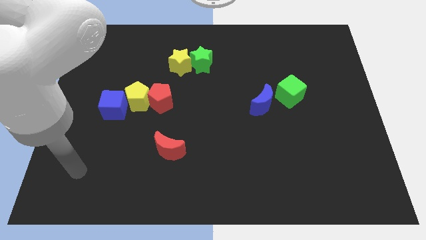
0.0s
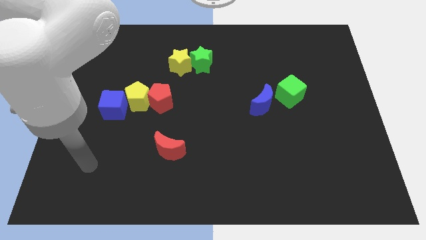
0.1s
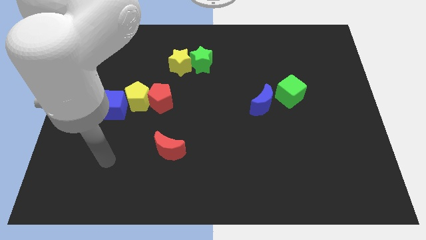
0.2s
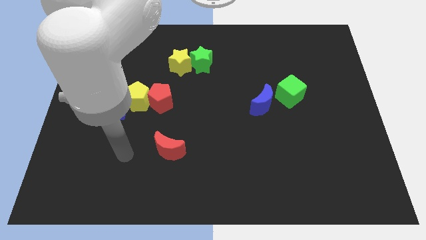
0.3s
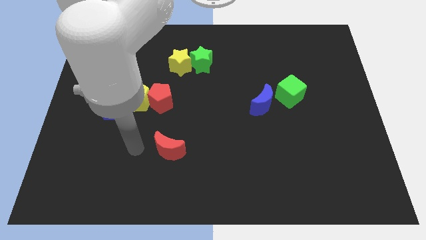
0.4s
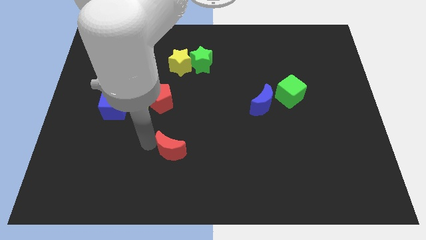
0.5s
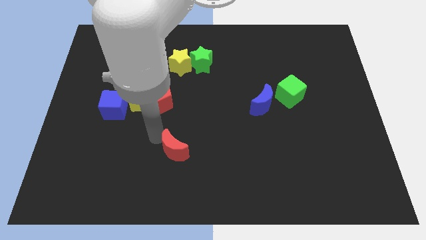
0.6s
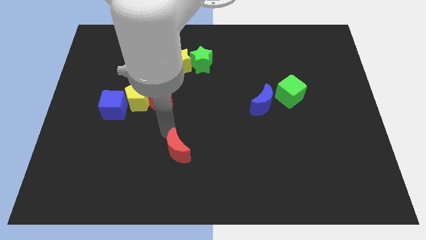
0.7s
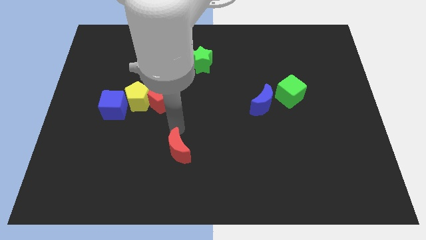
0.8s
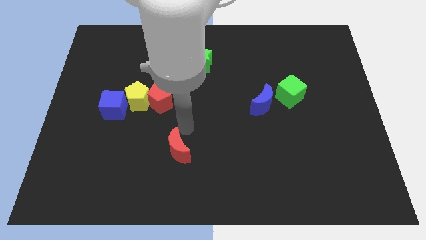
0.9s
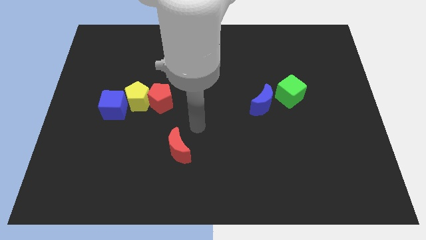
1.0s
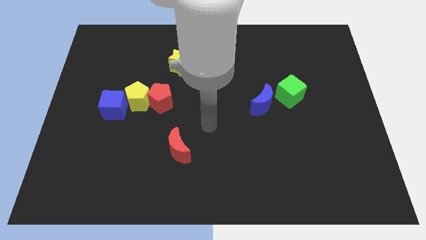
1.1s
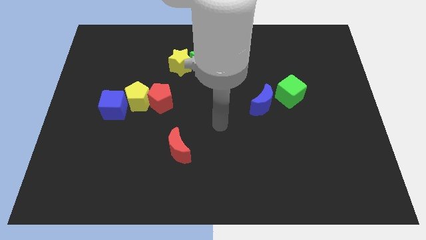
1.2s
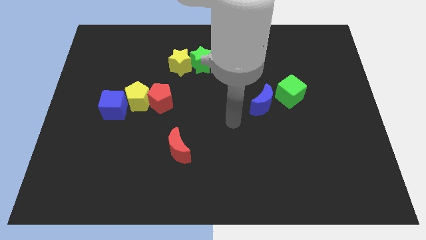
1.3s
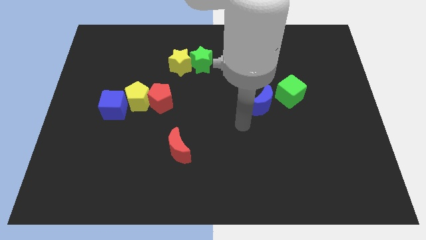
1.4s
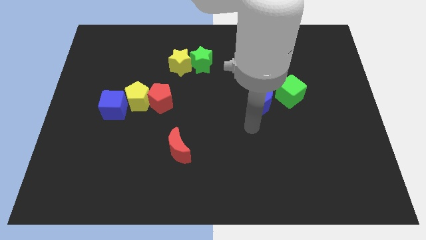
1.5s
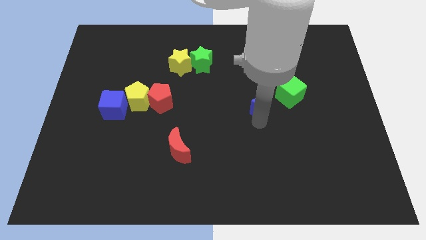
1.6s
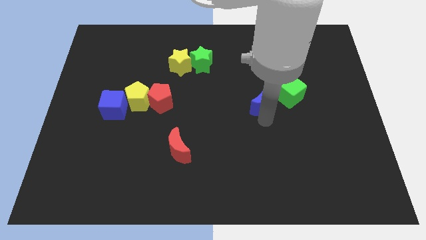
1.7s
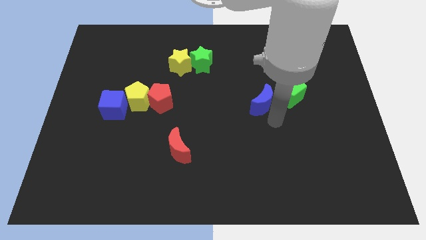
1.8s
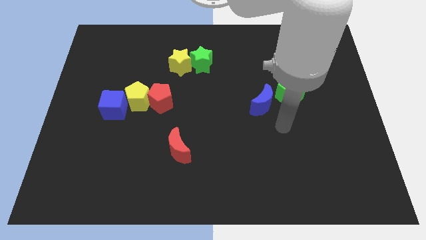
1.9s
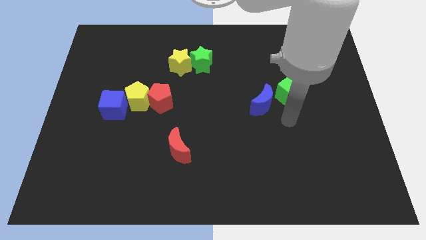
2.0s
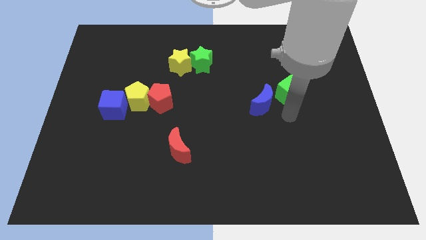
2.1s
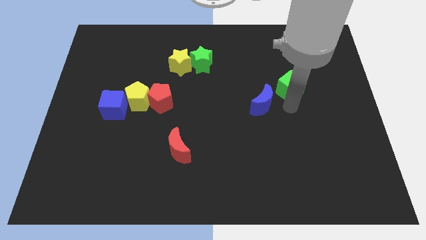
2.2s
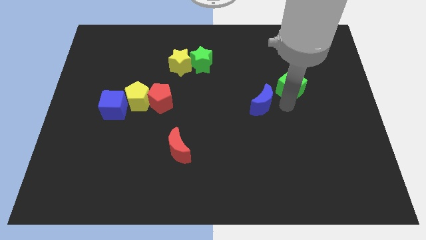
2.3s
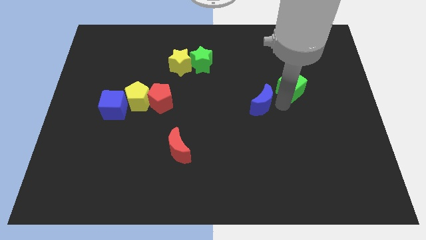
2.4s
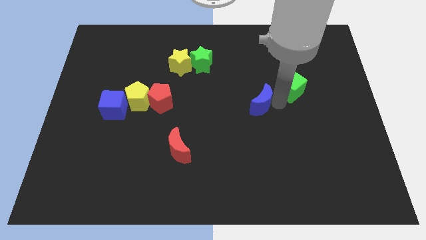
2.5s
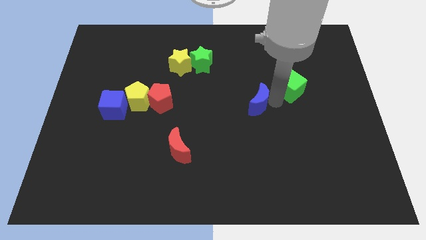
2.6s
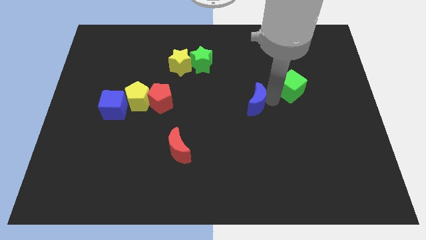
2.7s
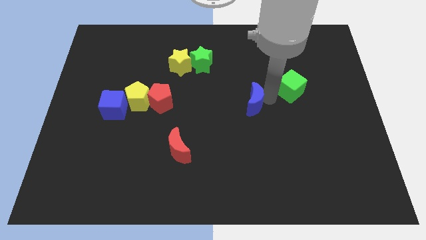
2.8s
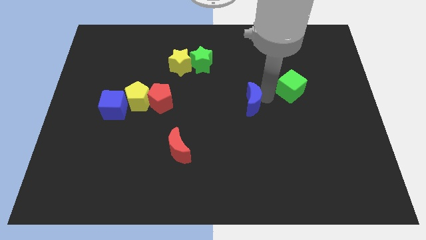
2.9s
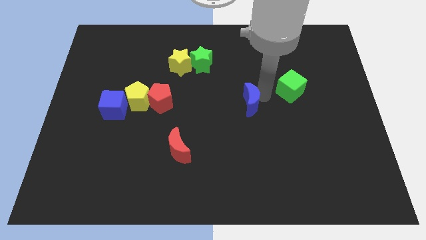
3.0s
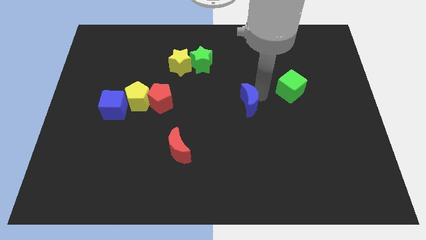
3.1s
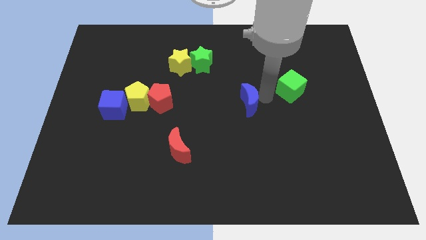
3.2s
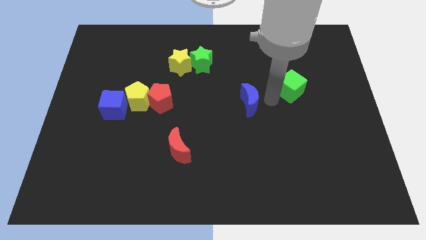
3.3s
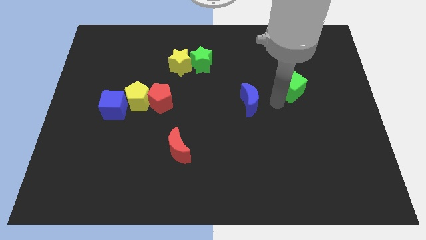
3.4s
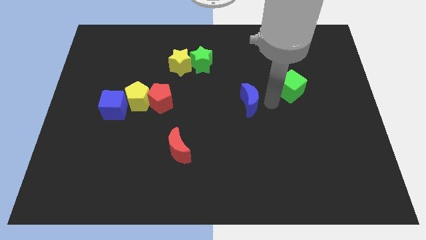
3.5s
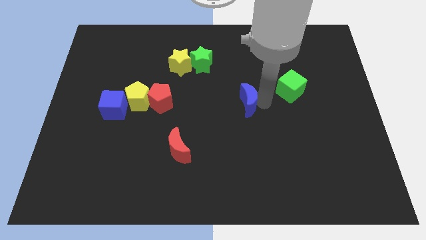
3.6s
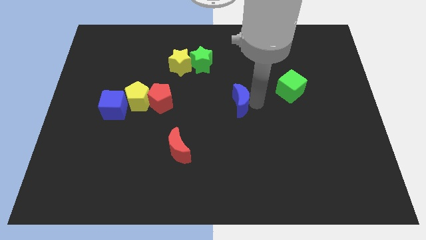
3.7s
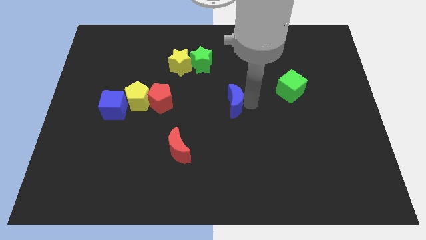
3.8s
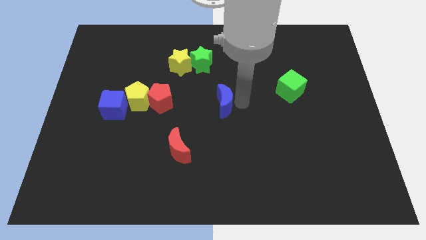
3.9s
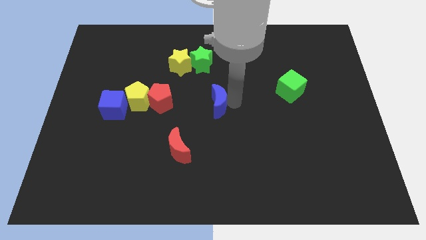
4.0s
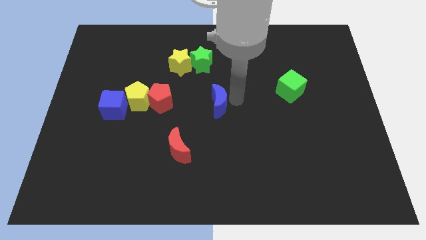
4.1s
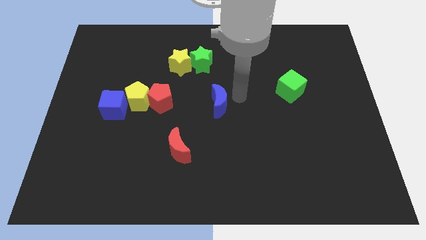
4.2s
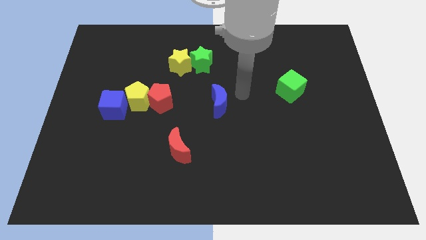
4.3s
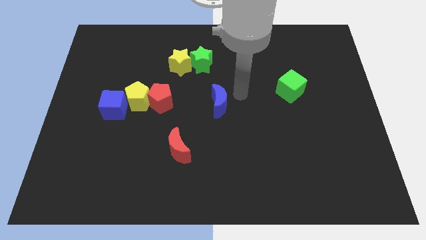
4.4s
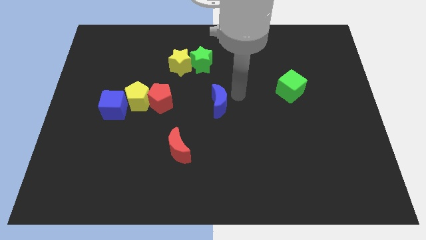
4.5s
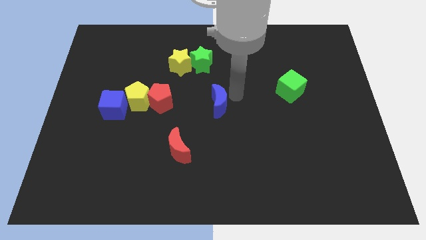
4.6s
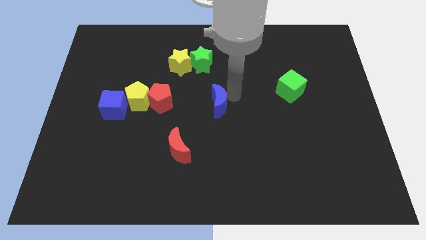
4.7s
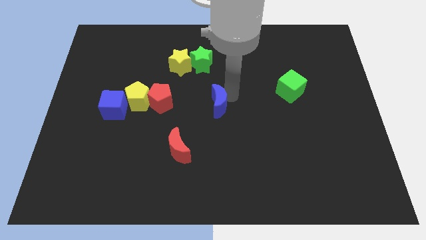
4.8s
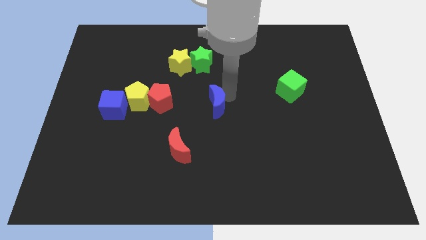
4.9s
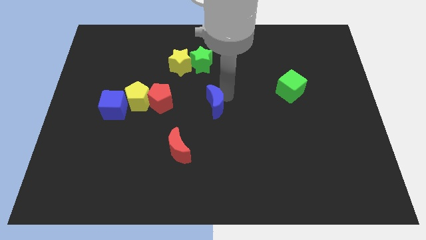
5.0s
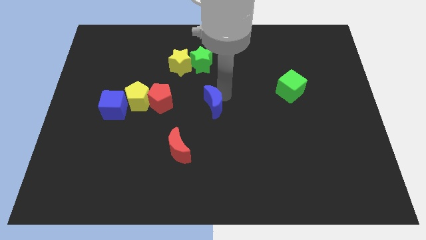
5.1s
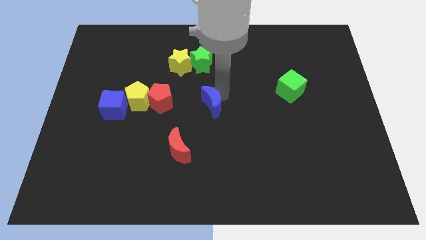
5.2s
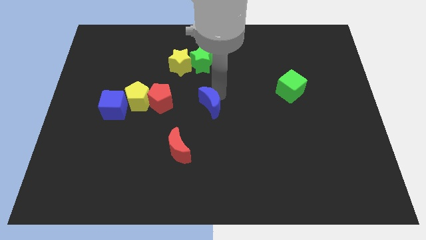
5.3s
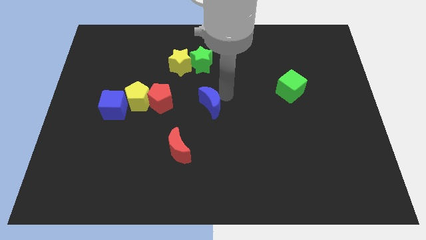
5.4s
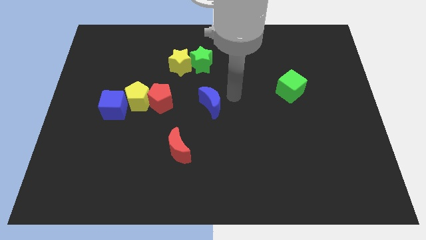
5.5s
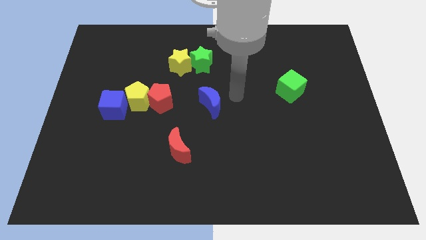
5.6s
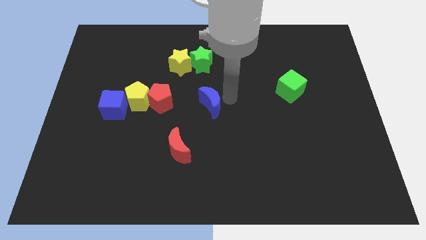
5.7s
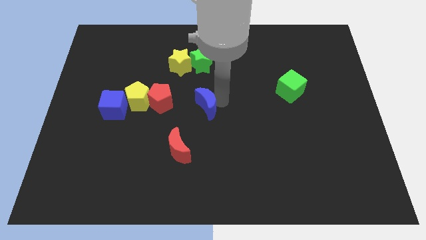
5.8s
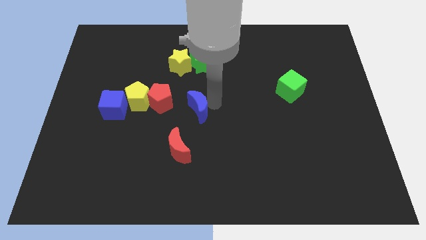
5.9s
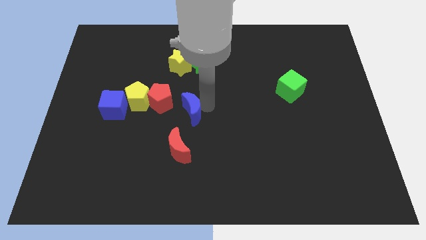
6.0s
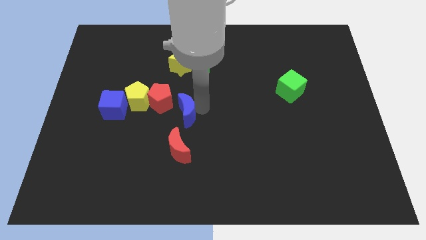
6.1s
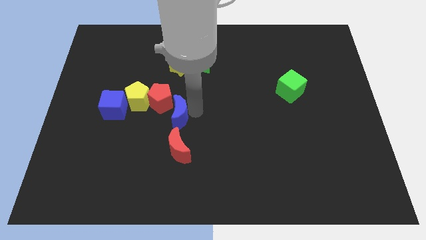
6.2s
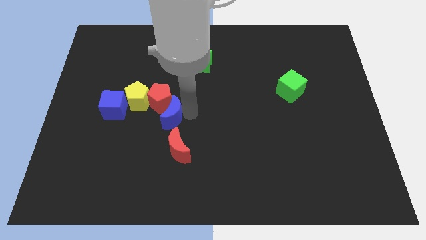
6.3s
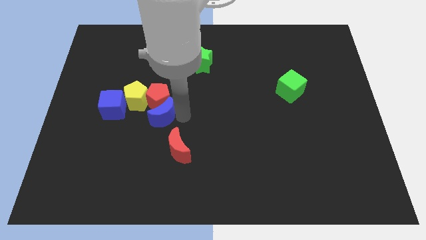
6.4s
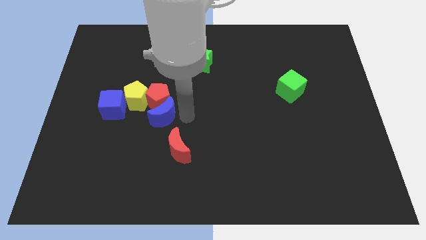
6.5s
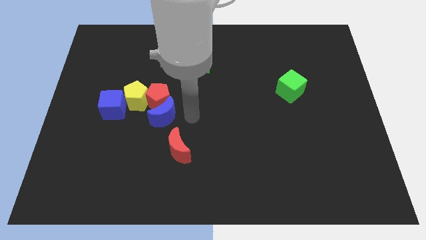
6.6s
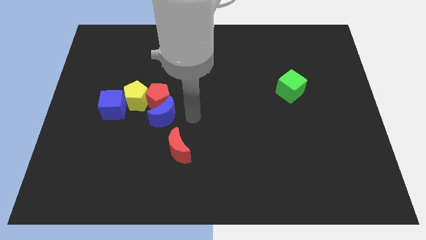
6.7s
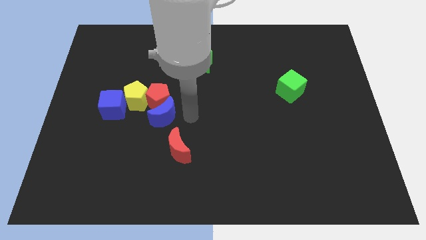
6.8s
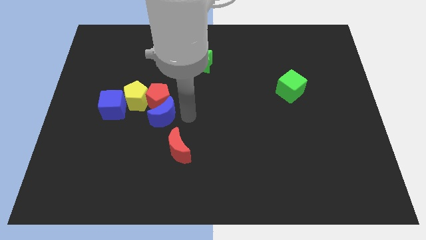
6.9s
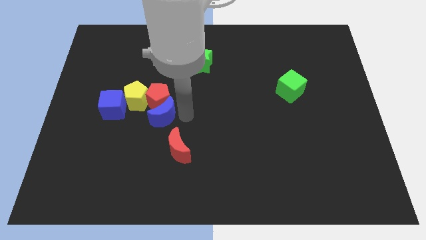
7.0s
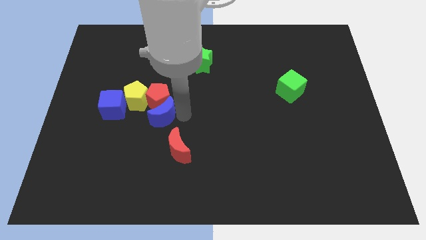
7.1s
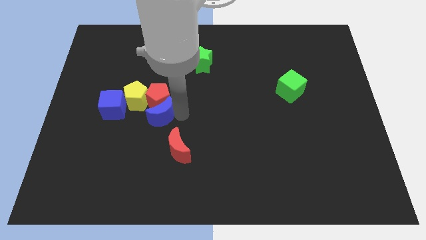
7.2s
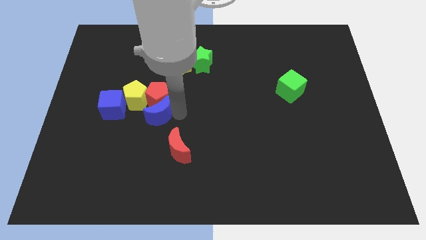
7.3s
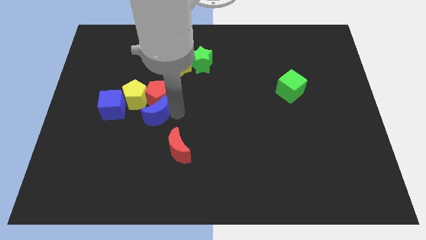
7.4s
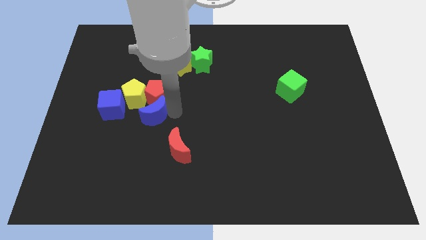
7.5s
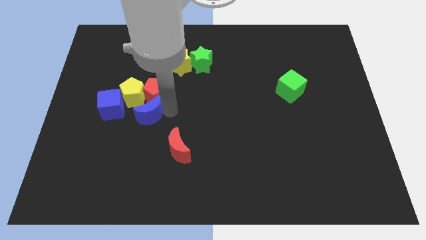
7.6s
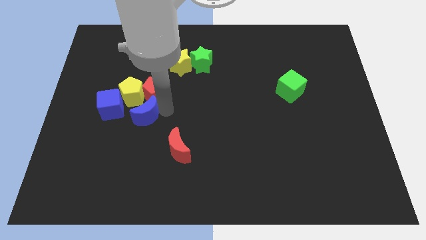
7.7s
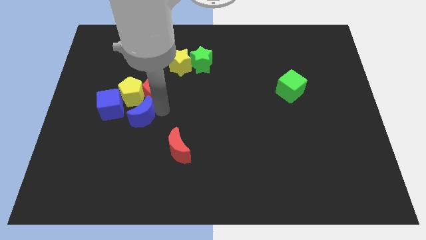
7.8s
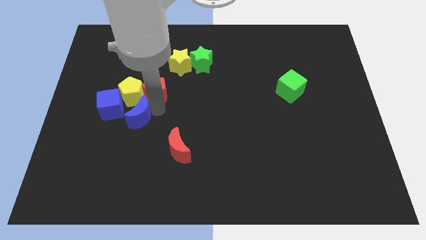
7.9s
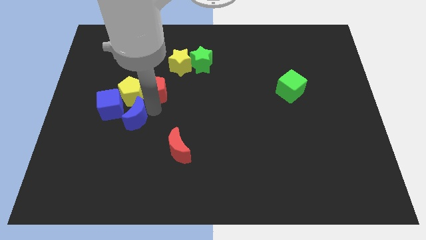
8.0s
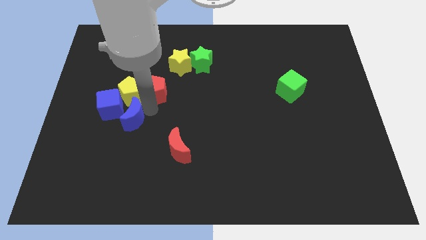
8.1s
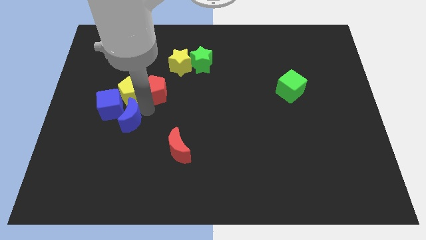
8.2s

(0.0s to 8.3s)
slide the blue moon next to the blue cube
